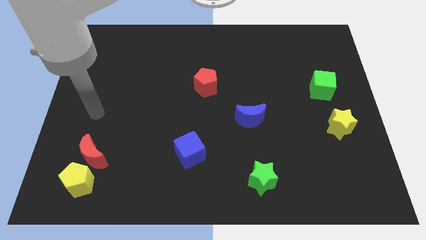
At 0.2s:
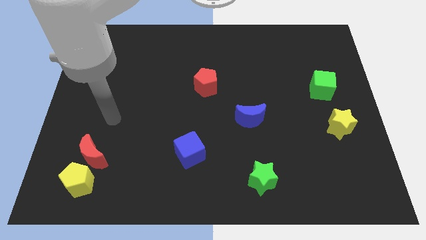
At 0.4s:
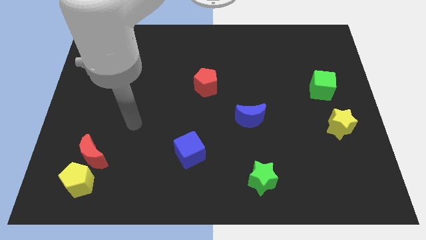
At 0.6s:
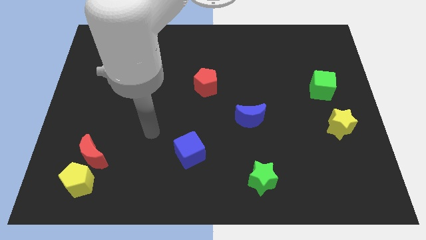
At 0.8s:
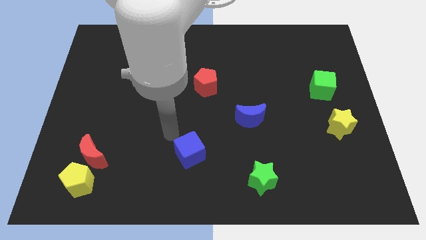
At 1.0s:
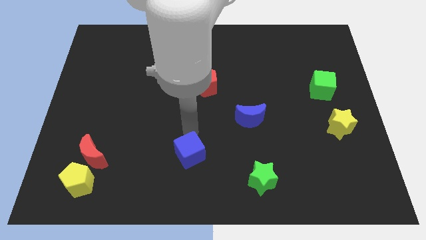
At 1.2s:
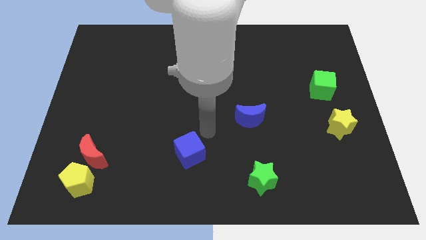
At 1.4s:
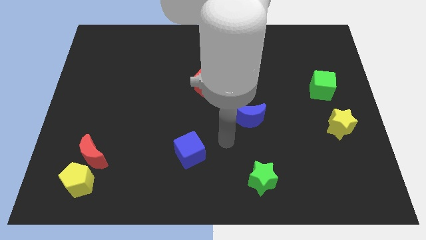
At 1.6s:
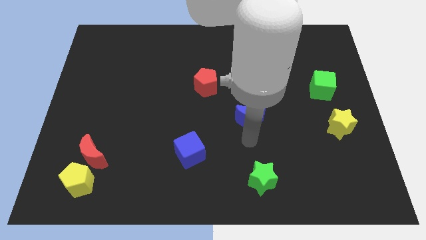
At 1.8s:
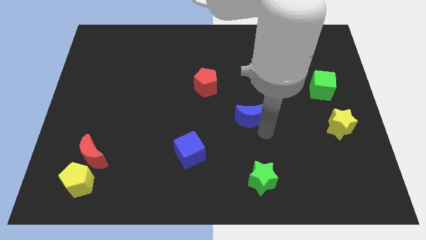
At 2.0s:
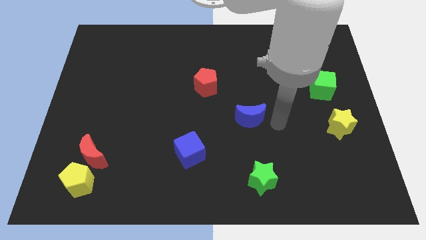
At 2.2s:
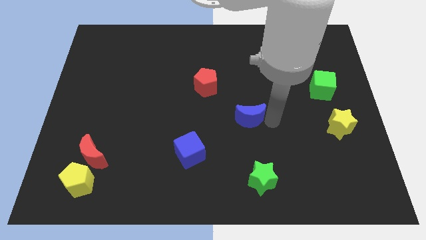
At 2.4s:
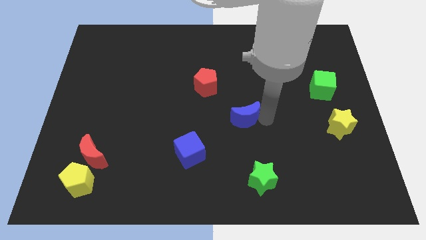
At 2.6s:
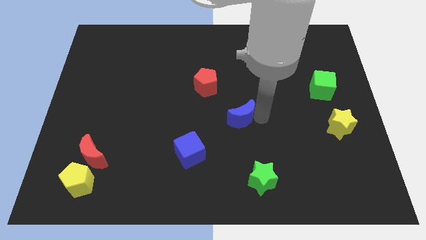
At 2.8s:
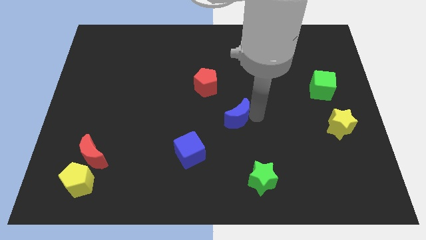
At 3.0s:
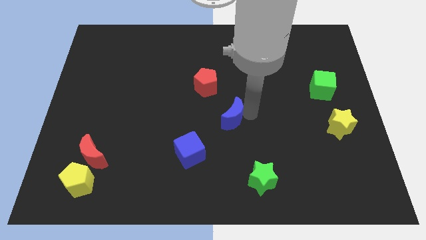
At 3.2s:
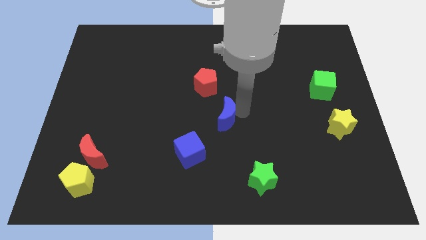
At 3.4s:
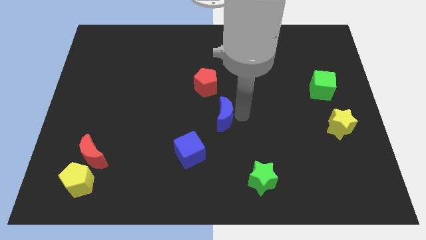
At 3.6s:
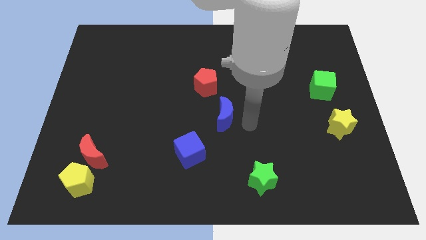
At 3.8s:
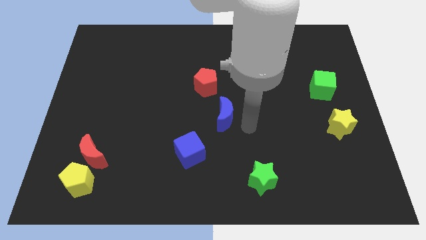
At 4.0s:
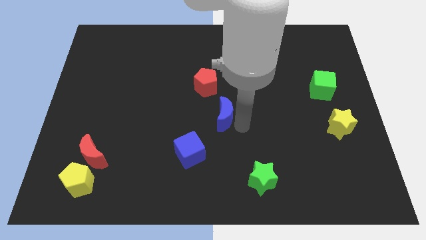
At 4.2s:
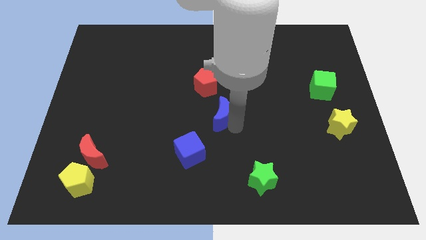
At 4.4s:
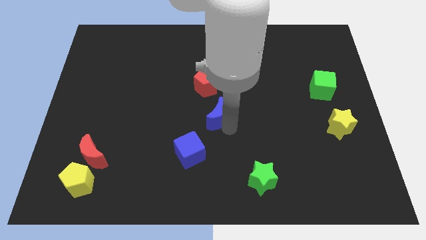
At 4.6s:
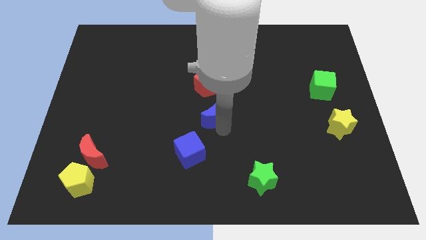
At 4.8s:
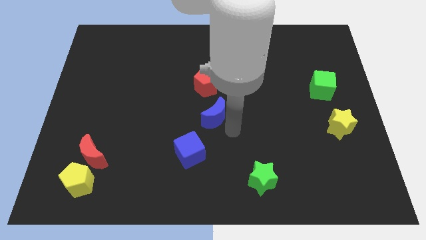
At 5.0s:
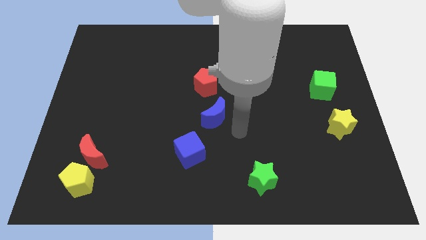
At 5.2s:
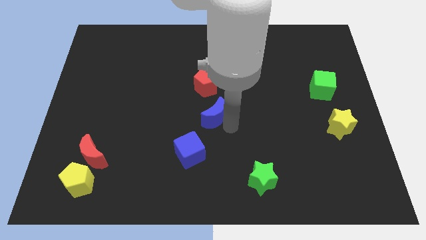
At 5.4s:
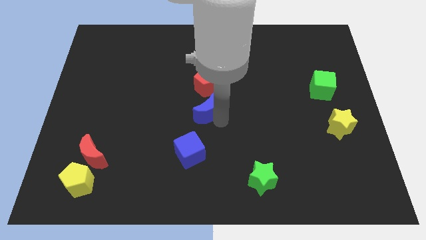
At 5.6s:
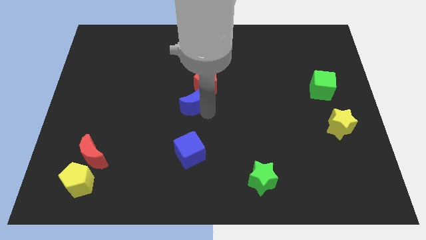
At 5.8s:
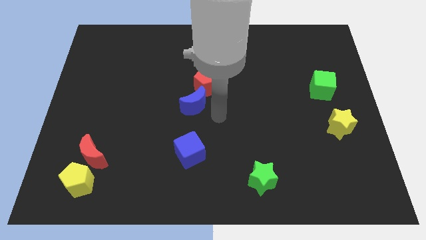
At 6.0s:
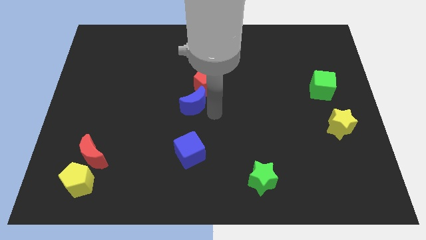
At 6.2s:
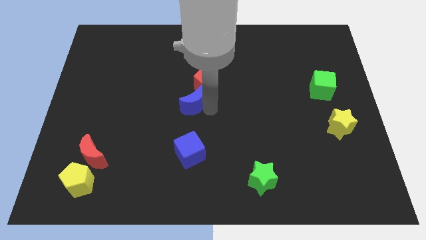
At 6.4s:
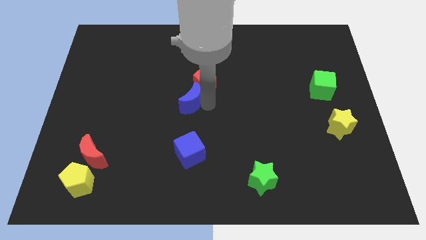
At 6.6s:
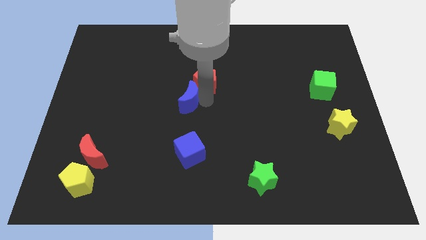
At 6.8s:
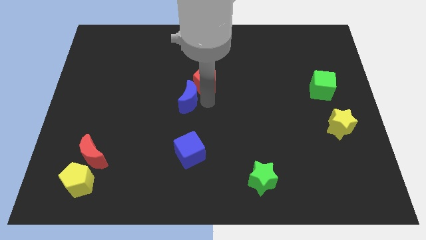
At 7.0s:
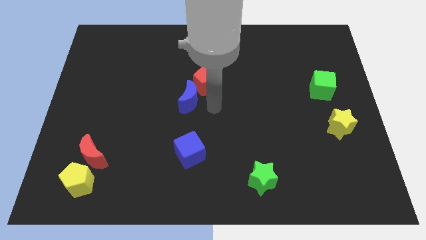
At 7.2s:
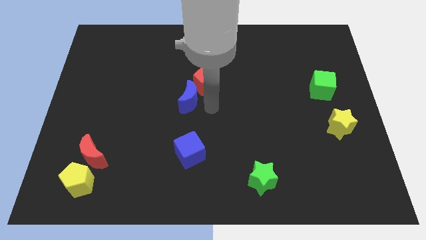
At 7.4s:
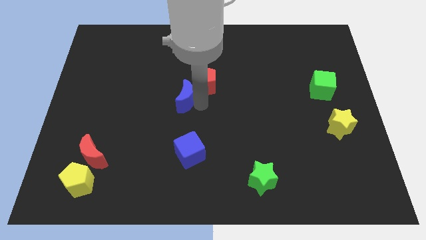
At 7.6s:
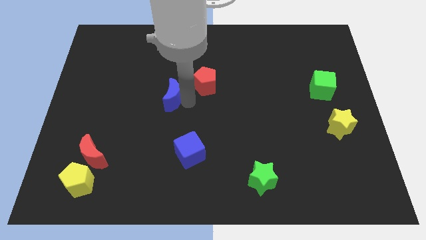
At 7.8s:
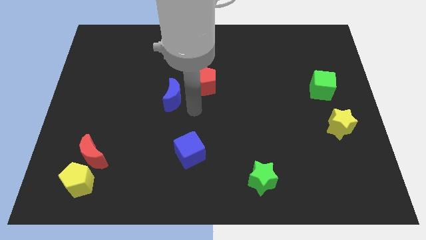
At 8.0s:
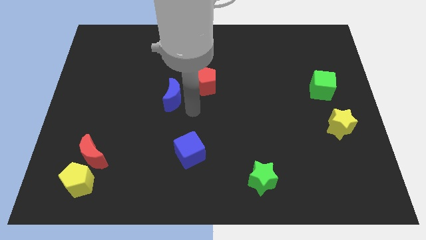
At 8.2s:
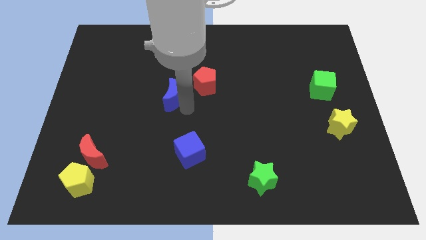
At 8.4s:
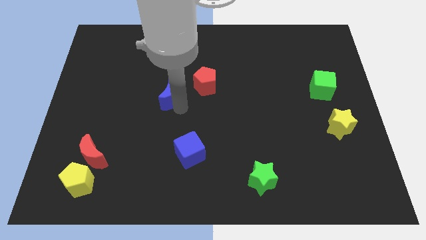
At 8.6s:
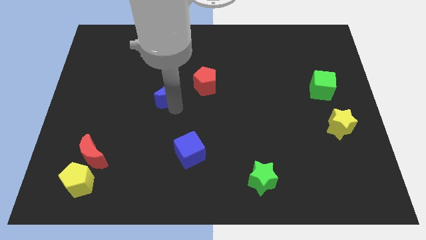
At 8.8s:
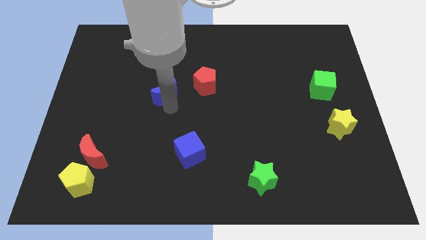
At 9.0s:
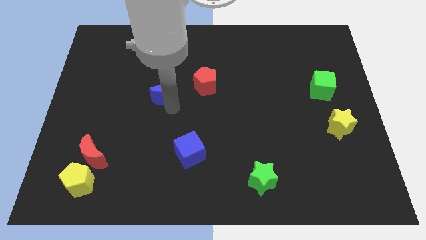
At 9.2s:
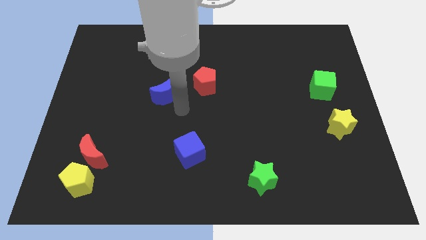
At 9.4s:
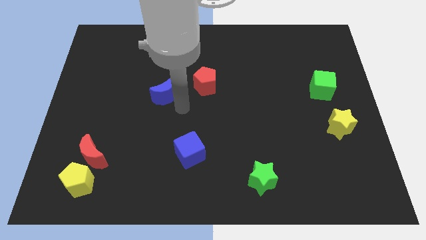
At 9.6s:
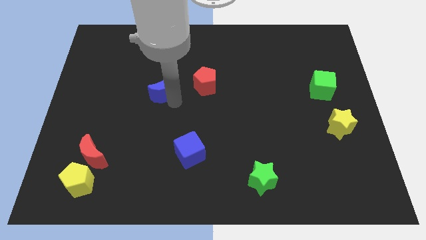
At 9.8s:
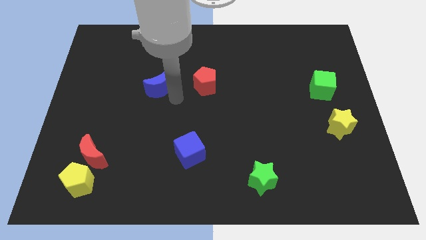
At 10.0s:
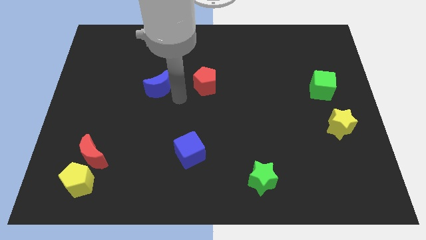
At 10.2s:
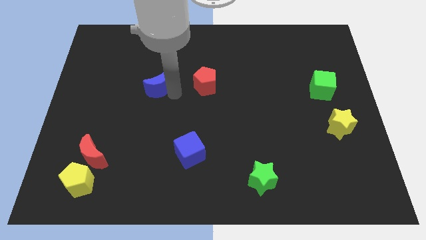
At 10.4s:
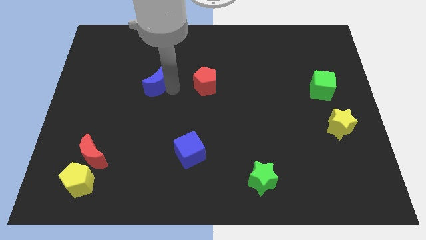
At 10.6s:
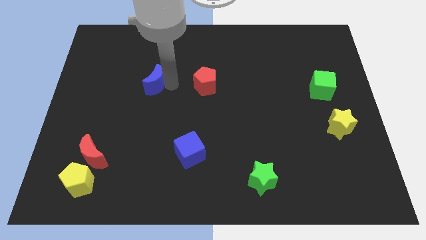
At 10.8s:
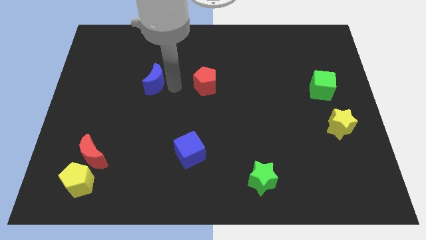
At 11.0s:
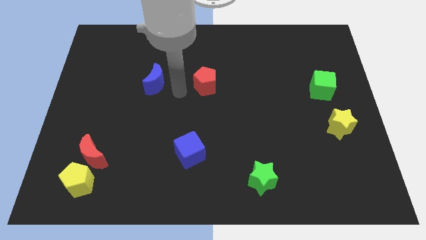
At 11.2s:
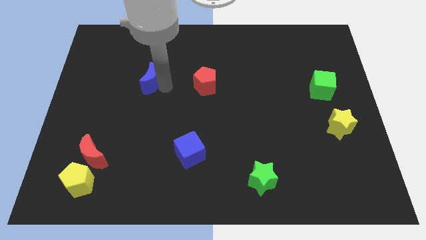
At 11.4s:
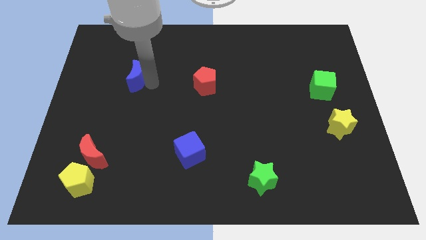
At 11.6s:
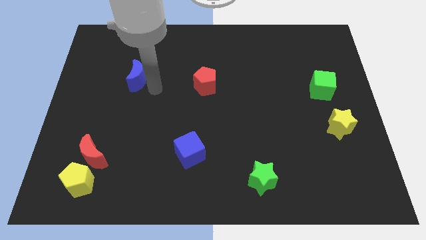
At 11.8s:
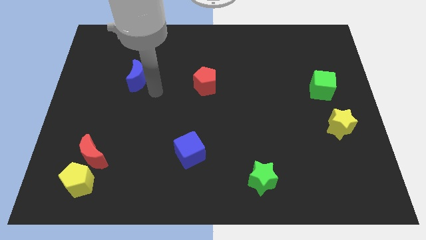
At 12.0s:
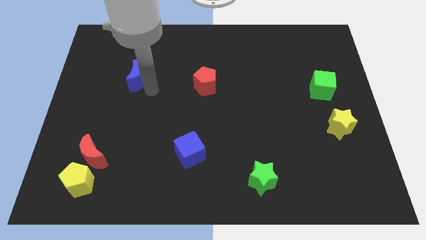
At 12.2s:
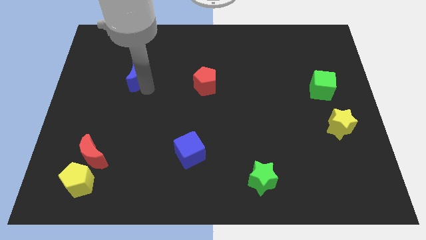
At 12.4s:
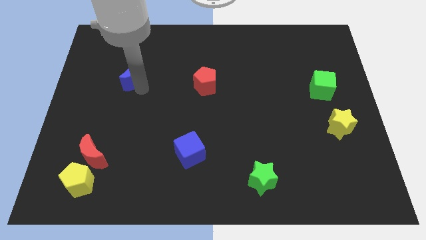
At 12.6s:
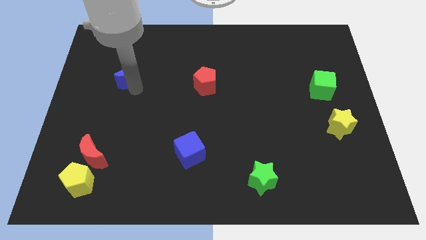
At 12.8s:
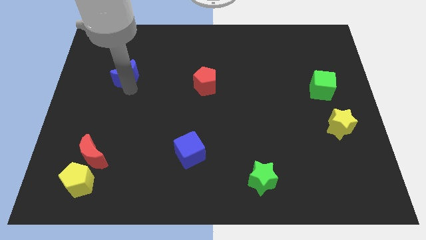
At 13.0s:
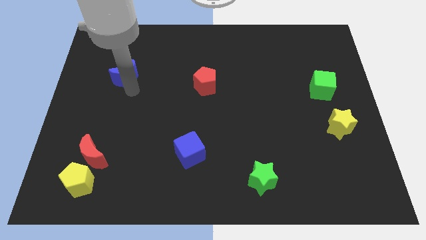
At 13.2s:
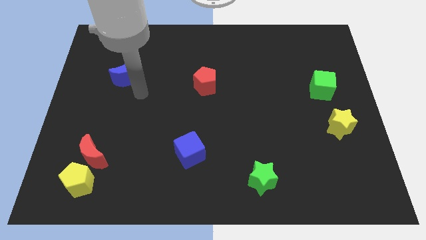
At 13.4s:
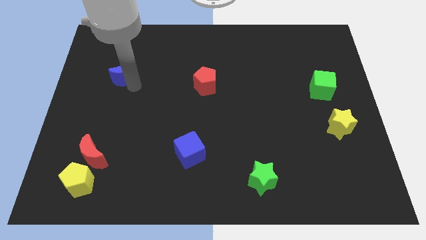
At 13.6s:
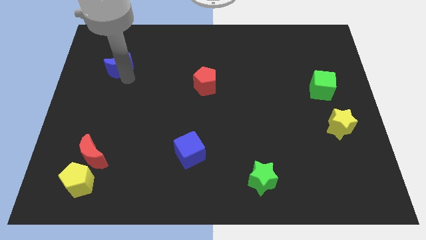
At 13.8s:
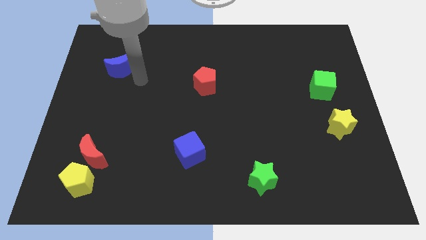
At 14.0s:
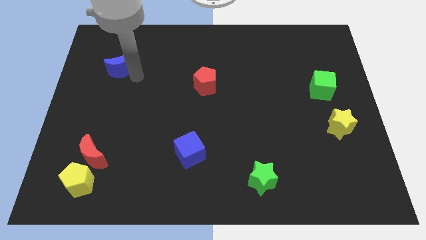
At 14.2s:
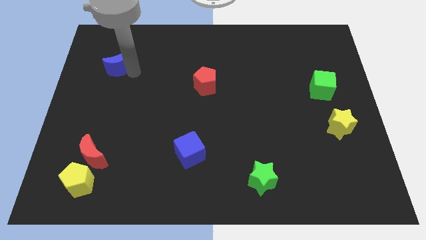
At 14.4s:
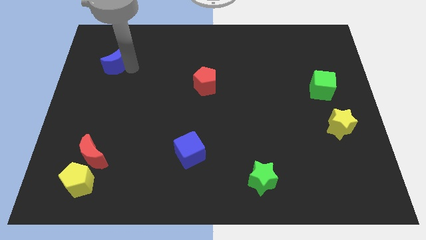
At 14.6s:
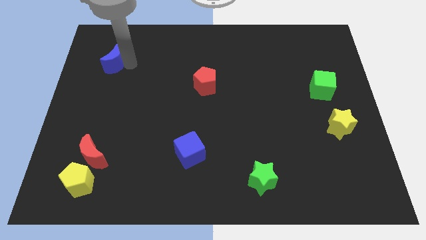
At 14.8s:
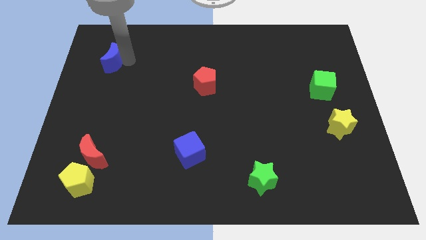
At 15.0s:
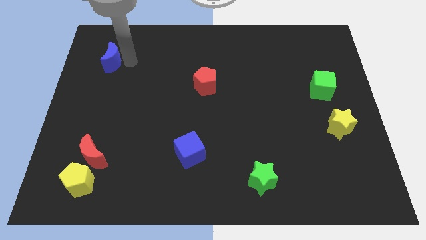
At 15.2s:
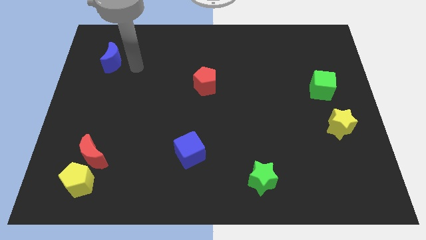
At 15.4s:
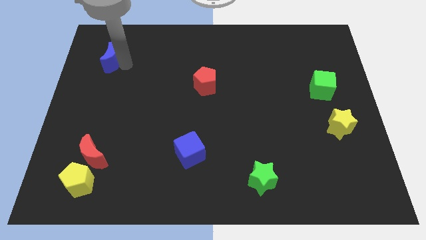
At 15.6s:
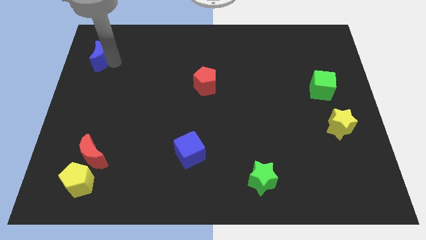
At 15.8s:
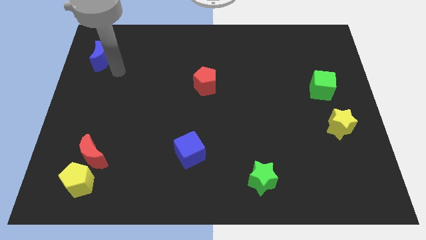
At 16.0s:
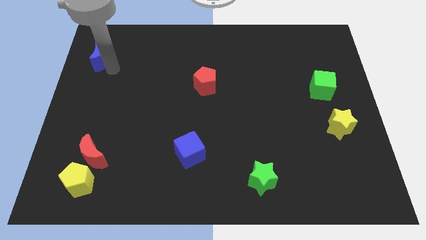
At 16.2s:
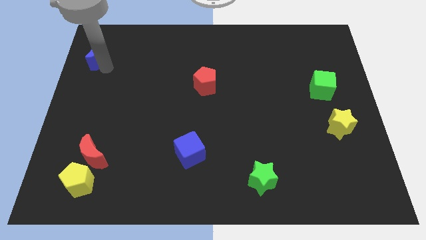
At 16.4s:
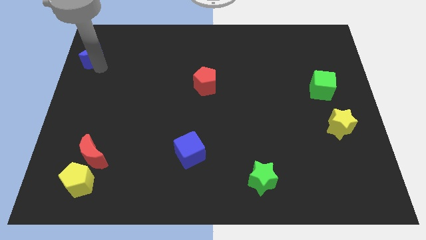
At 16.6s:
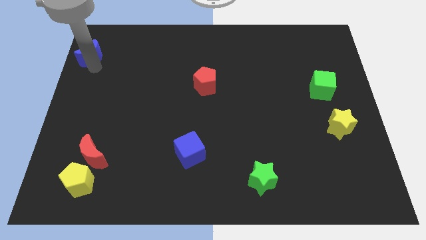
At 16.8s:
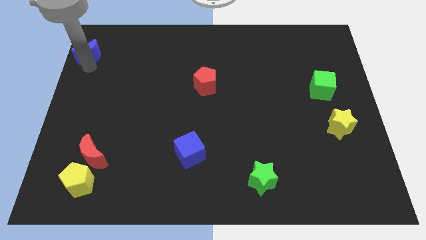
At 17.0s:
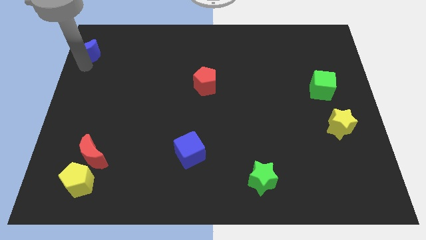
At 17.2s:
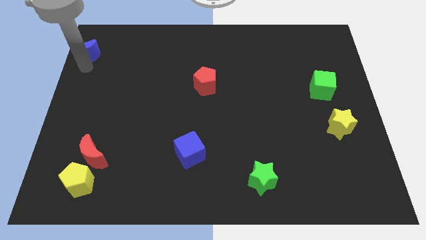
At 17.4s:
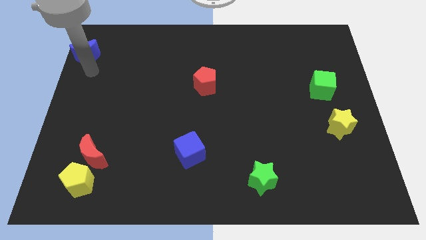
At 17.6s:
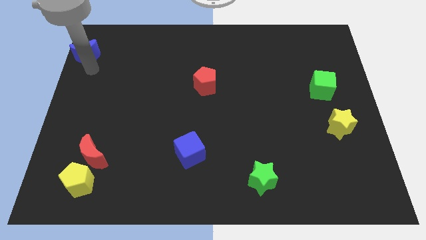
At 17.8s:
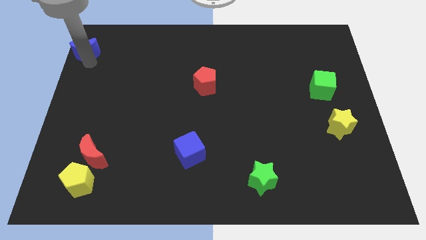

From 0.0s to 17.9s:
slide the blue moon to the top left corner
